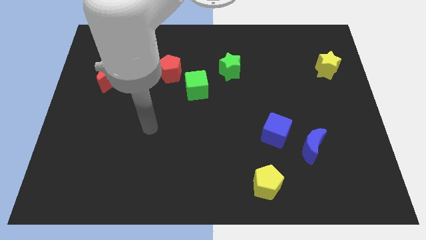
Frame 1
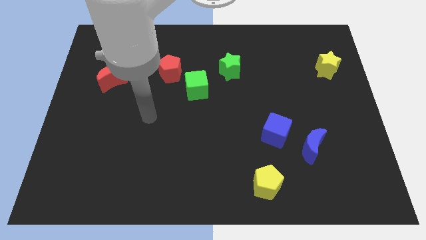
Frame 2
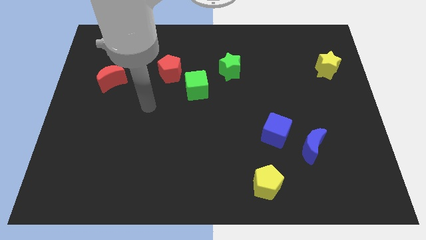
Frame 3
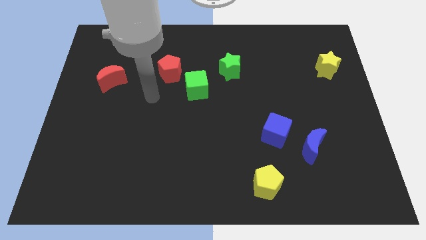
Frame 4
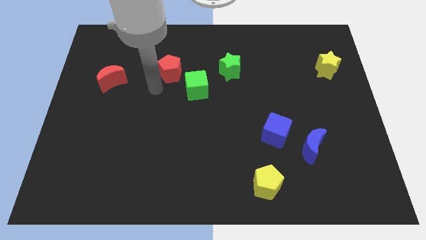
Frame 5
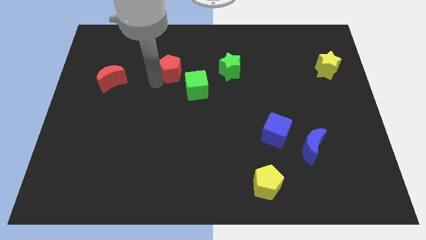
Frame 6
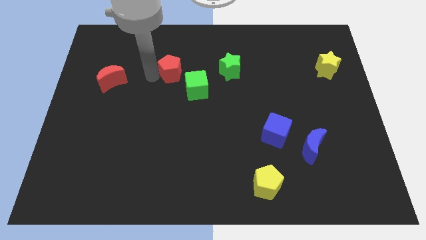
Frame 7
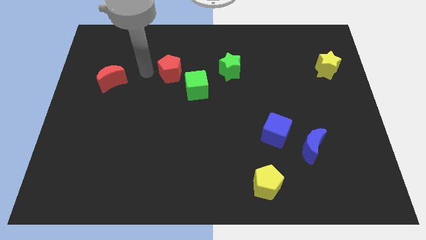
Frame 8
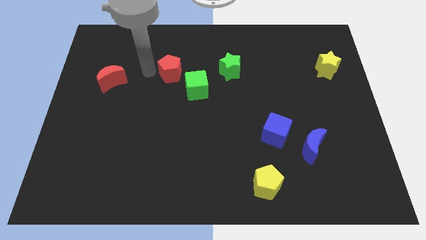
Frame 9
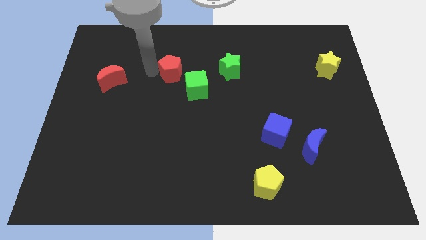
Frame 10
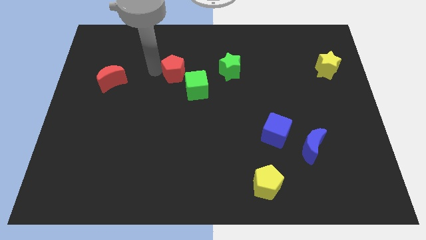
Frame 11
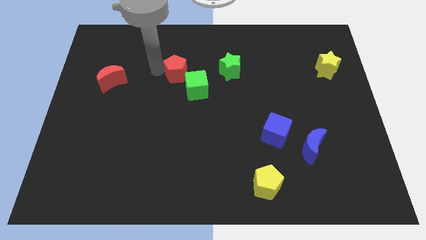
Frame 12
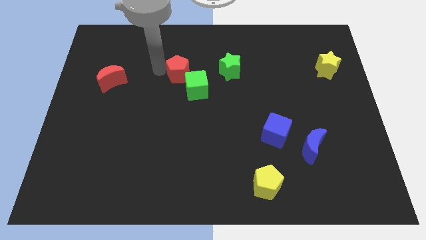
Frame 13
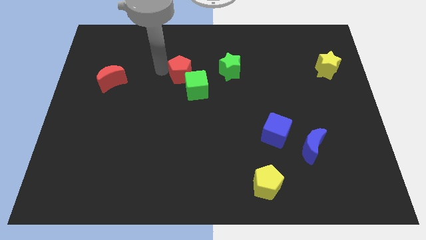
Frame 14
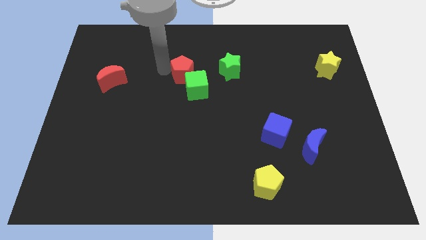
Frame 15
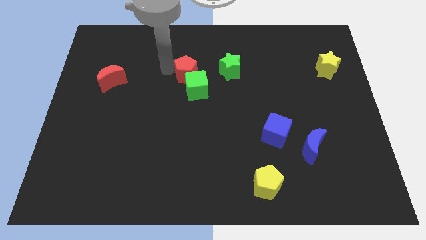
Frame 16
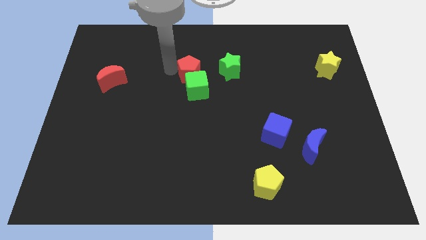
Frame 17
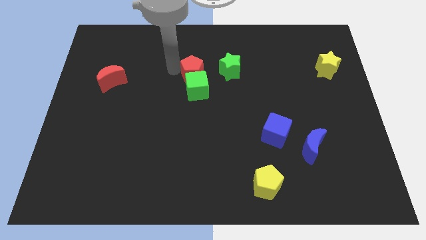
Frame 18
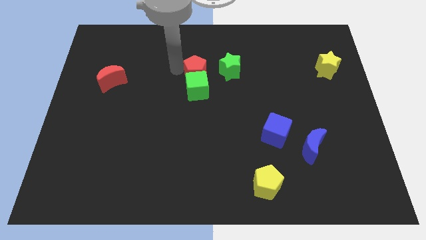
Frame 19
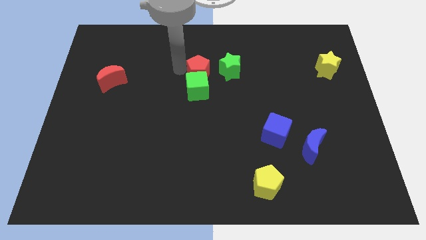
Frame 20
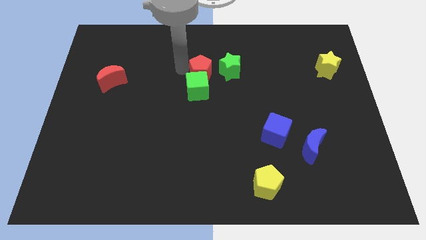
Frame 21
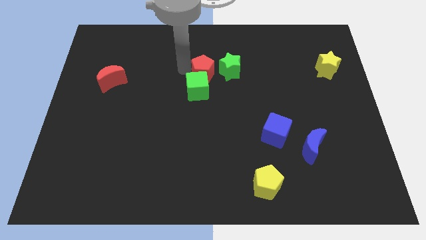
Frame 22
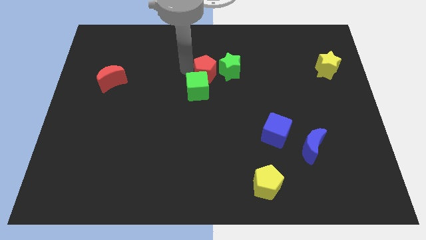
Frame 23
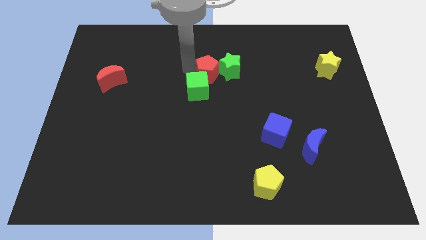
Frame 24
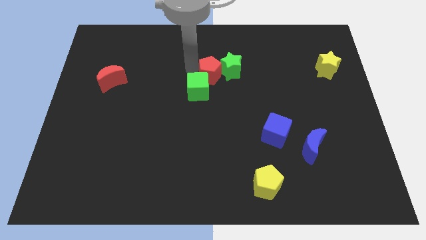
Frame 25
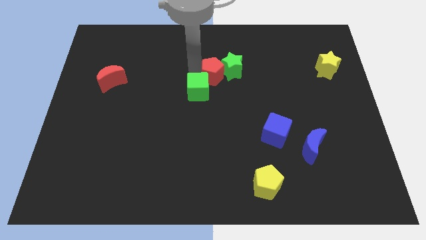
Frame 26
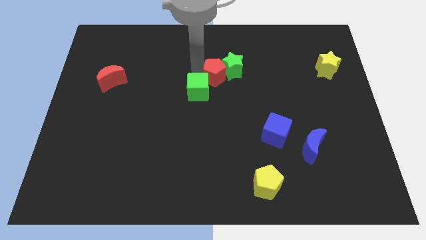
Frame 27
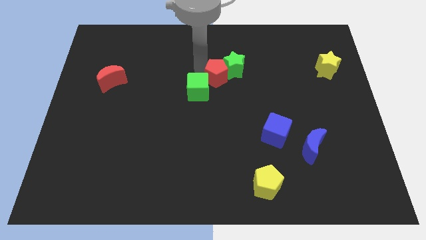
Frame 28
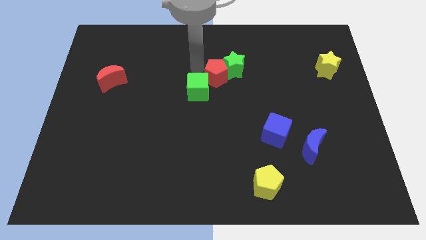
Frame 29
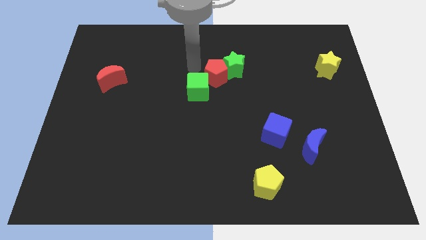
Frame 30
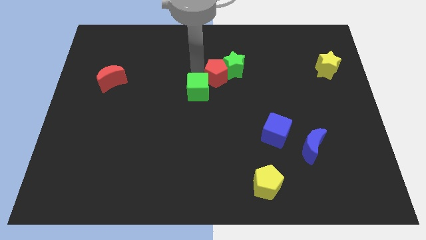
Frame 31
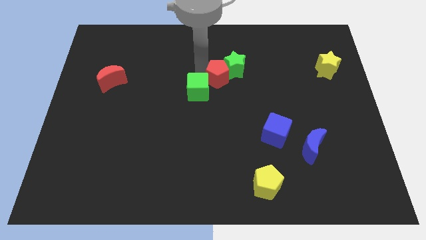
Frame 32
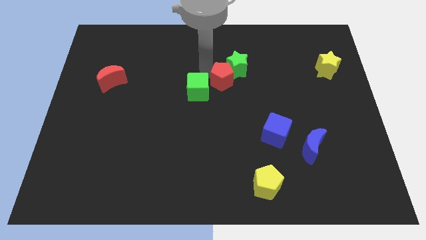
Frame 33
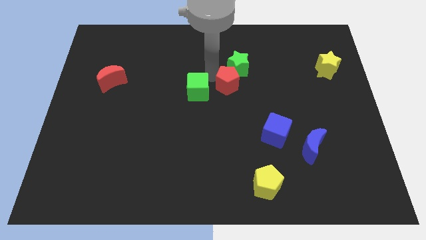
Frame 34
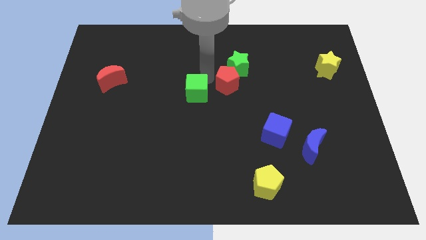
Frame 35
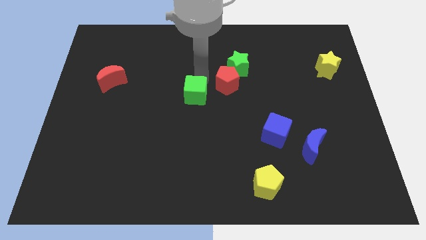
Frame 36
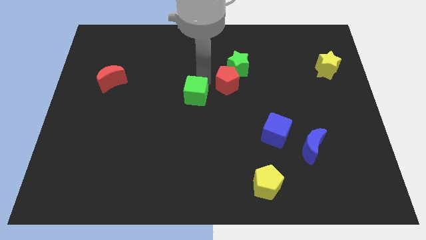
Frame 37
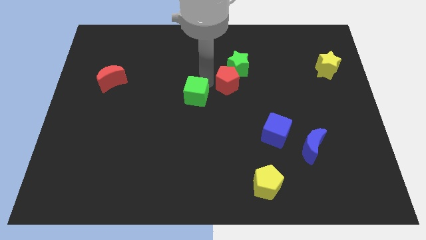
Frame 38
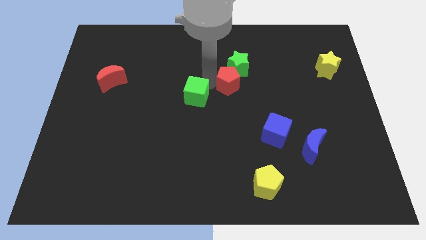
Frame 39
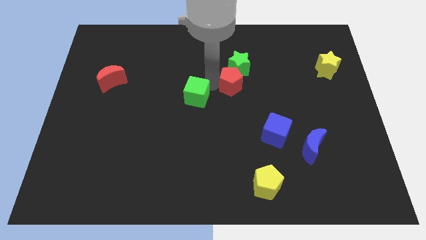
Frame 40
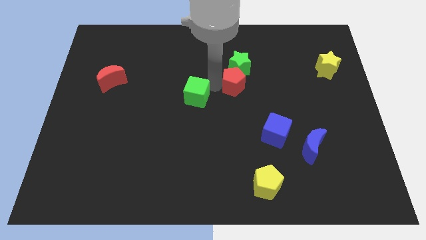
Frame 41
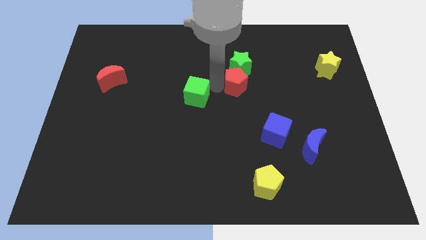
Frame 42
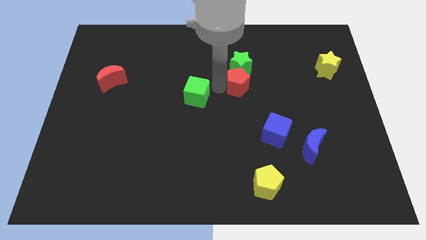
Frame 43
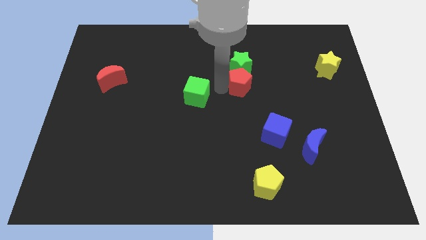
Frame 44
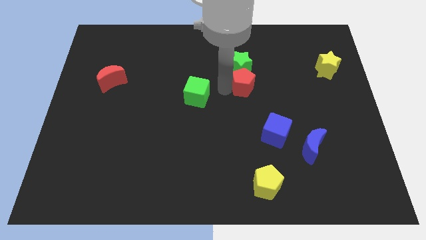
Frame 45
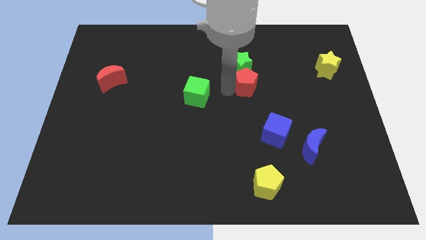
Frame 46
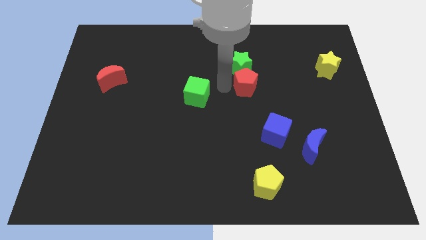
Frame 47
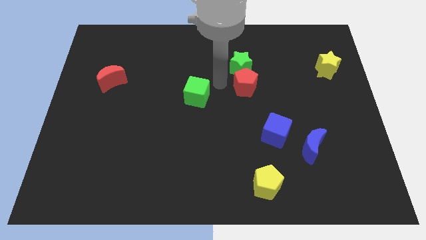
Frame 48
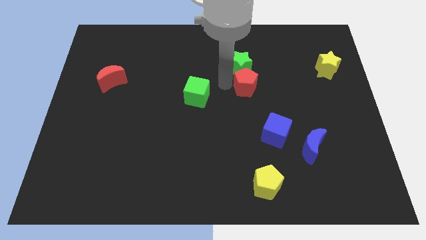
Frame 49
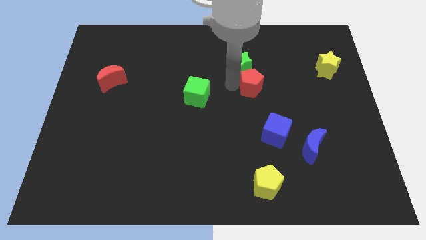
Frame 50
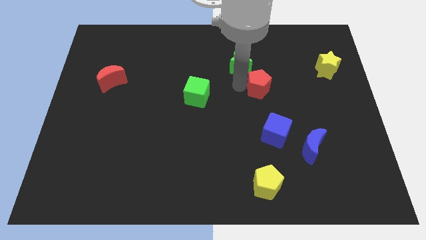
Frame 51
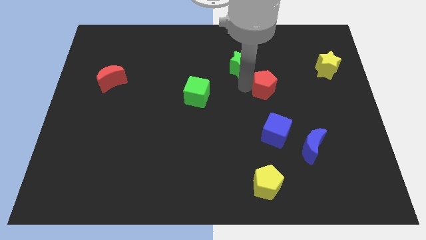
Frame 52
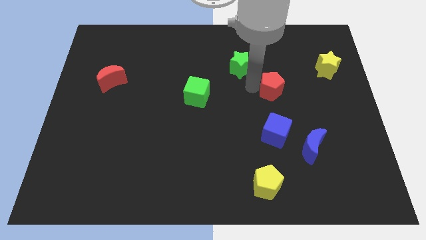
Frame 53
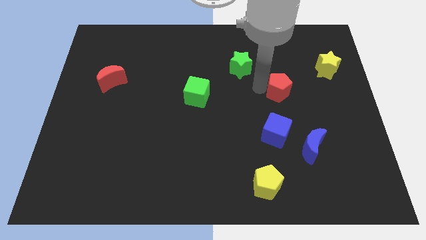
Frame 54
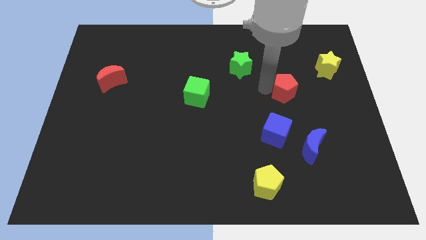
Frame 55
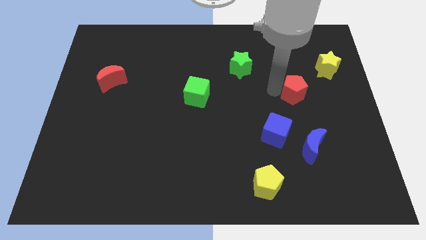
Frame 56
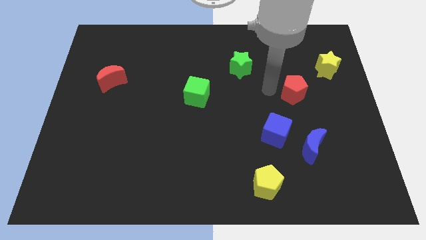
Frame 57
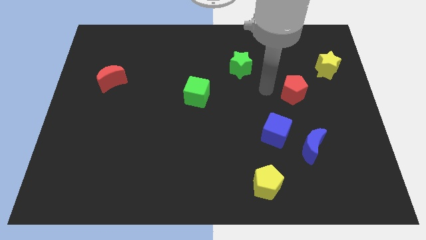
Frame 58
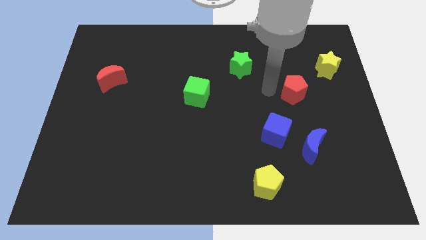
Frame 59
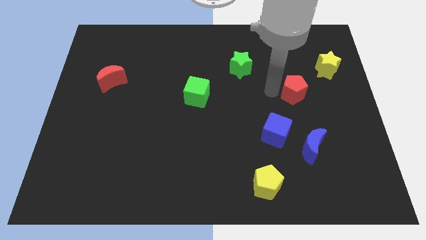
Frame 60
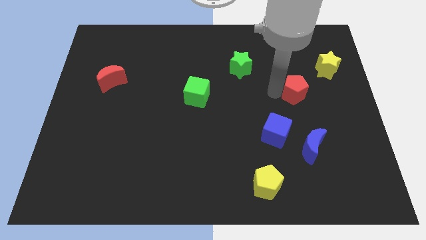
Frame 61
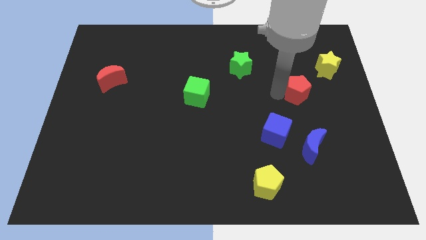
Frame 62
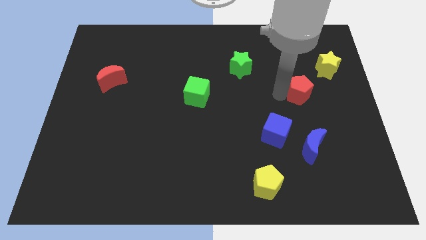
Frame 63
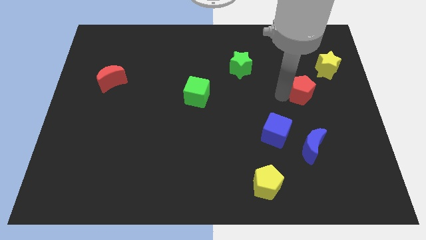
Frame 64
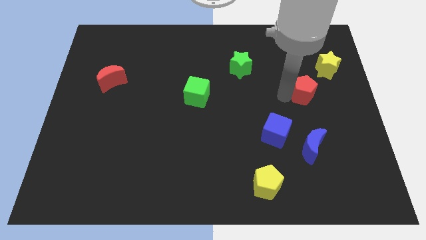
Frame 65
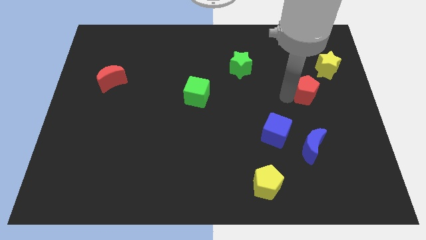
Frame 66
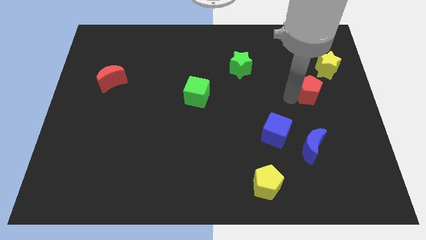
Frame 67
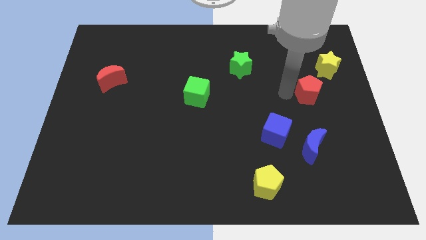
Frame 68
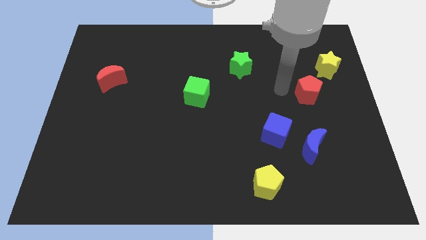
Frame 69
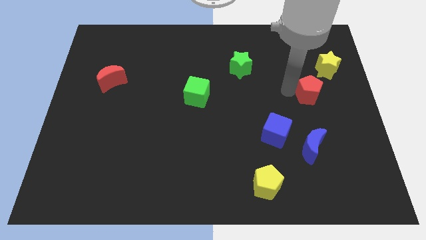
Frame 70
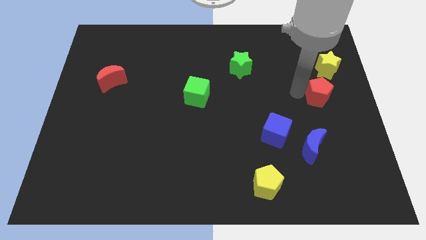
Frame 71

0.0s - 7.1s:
push the red pentagon to the right side

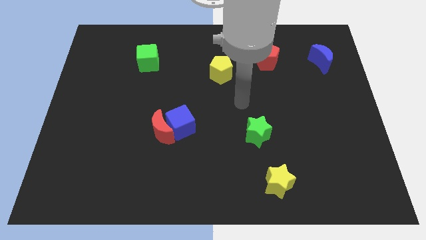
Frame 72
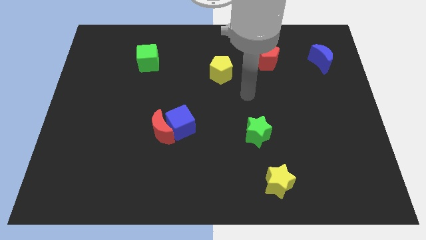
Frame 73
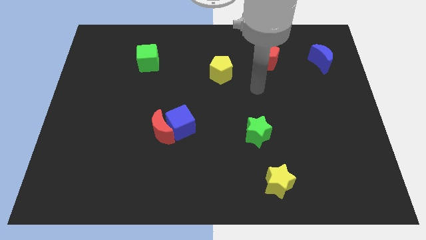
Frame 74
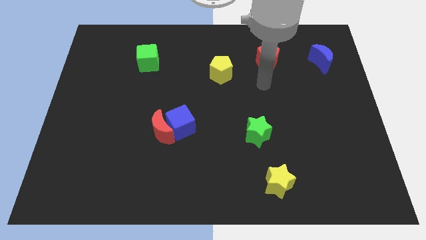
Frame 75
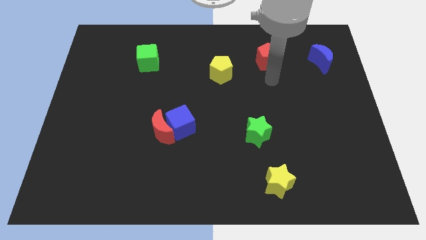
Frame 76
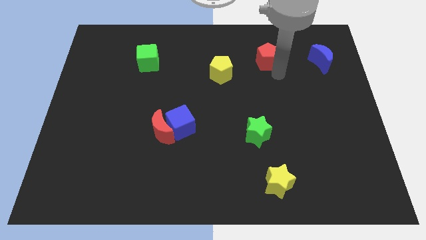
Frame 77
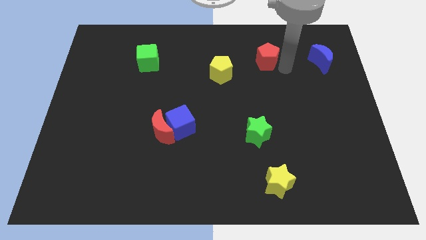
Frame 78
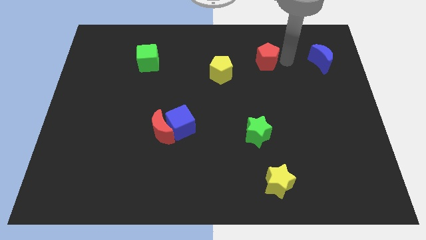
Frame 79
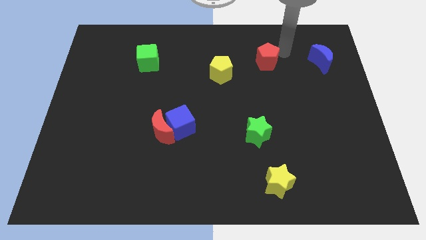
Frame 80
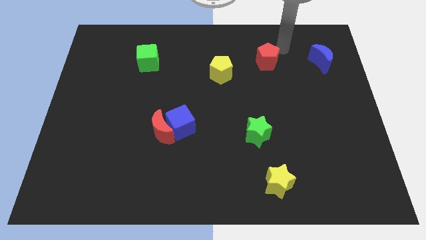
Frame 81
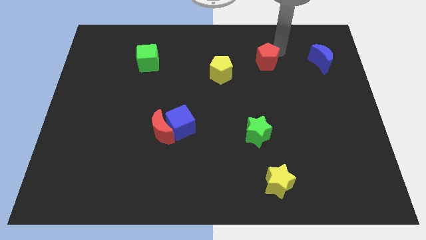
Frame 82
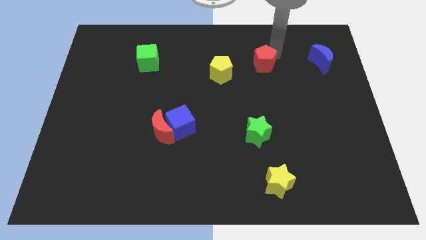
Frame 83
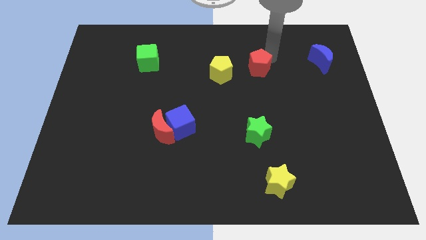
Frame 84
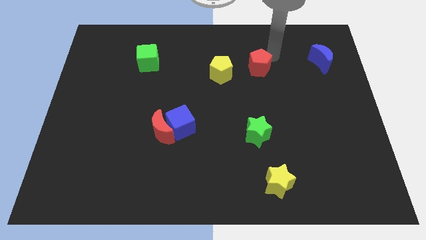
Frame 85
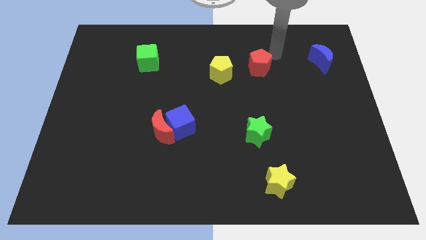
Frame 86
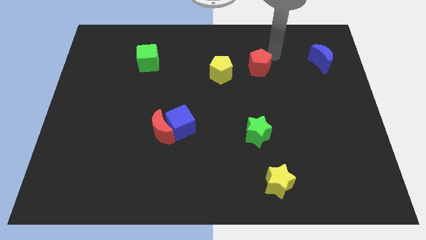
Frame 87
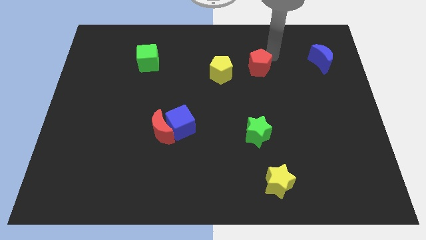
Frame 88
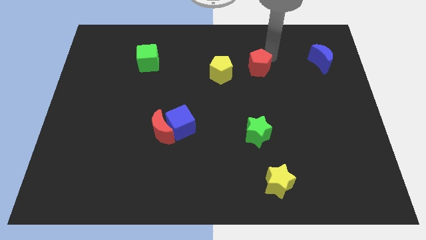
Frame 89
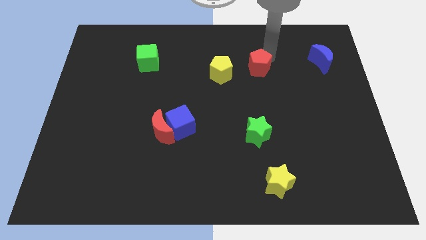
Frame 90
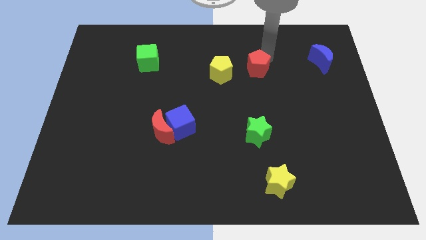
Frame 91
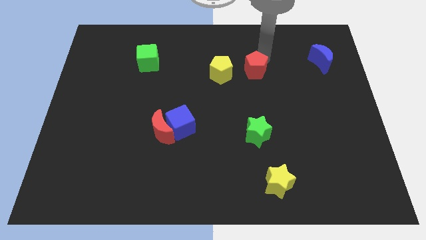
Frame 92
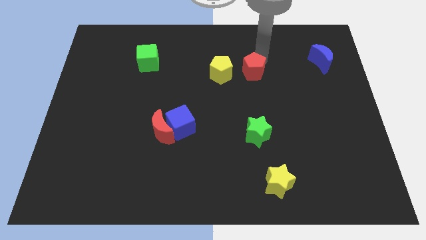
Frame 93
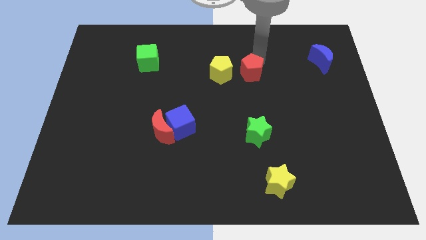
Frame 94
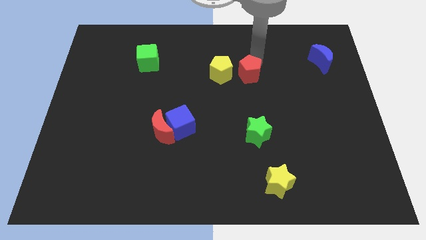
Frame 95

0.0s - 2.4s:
move the red pentagon to the center of the board
